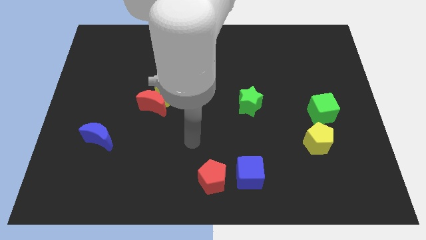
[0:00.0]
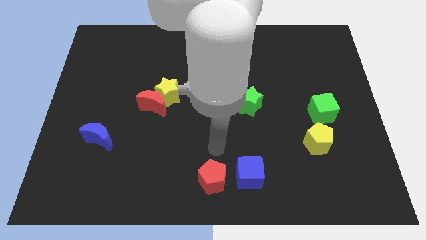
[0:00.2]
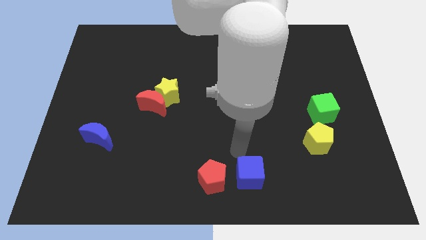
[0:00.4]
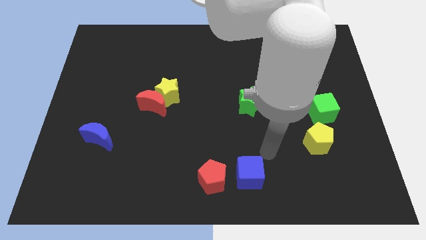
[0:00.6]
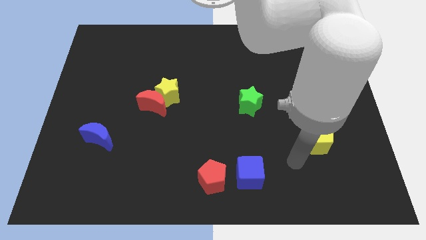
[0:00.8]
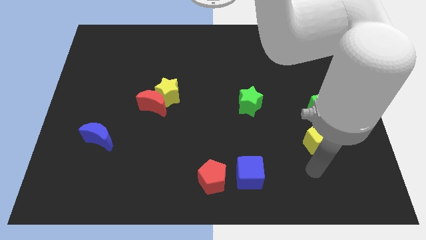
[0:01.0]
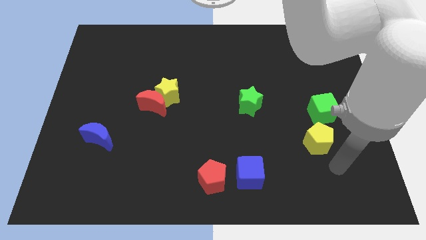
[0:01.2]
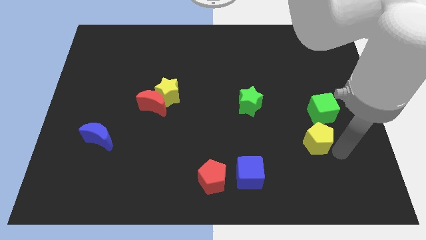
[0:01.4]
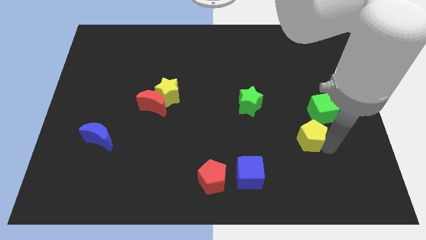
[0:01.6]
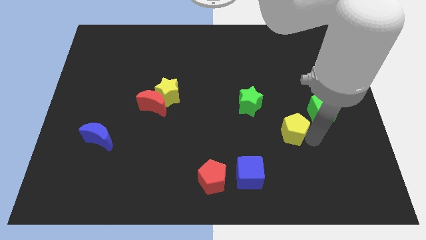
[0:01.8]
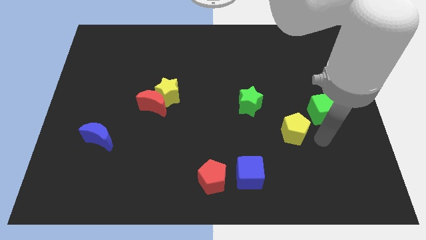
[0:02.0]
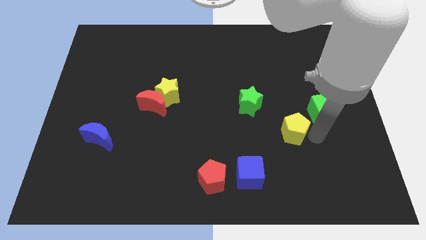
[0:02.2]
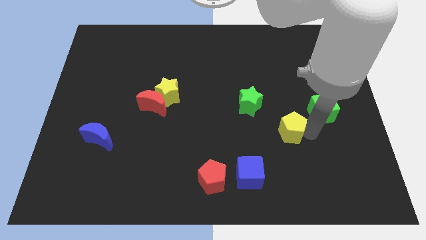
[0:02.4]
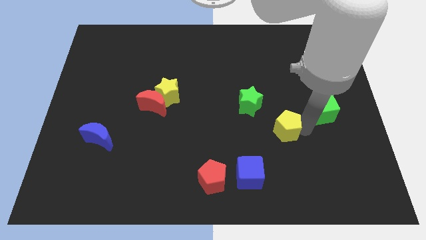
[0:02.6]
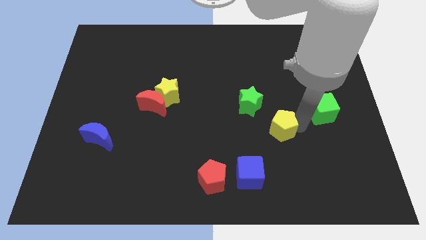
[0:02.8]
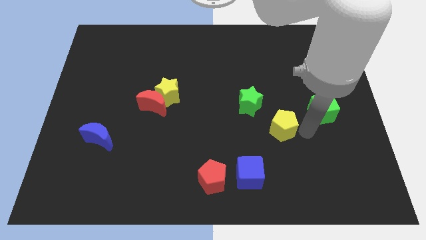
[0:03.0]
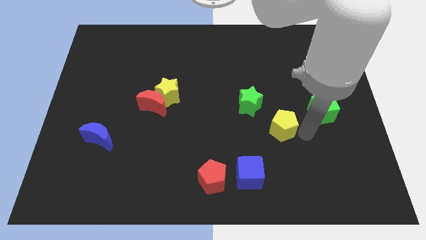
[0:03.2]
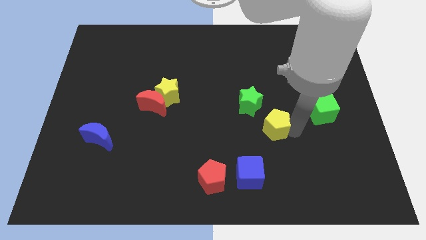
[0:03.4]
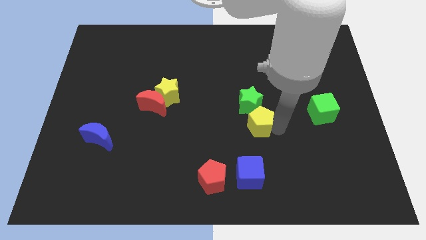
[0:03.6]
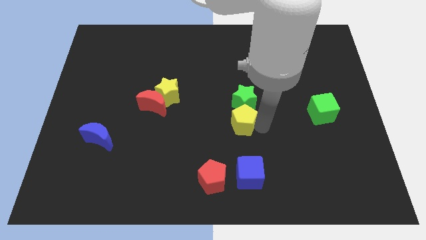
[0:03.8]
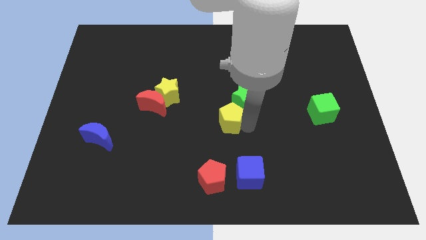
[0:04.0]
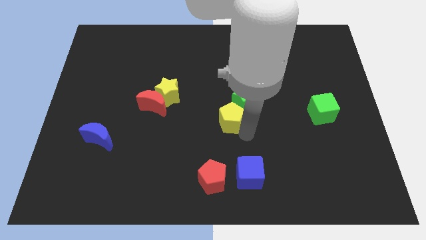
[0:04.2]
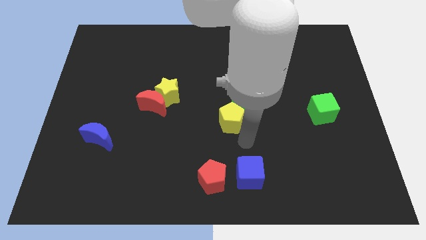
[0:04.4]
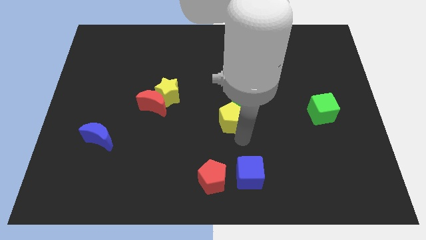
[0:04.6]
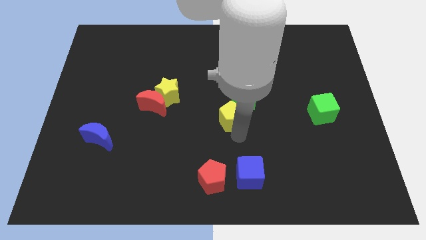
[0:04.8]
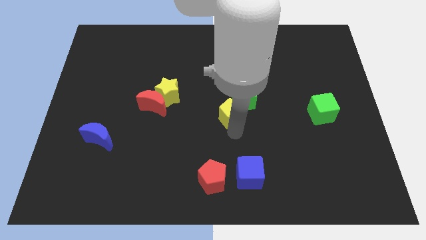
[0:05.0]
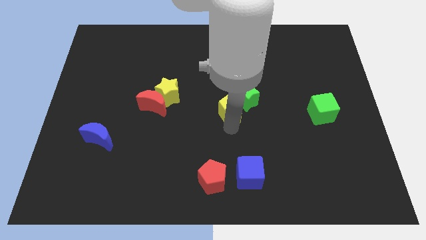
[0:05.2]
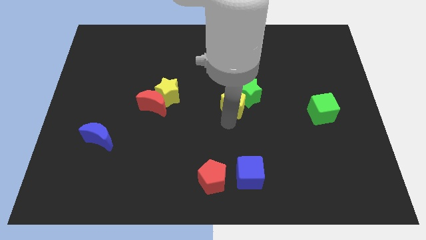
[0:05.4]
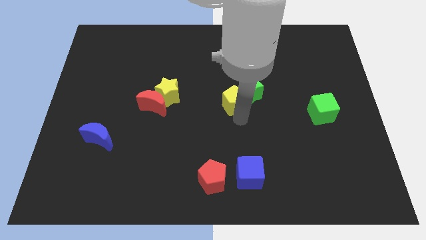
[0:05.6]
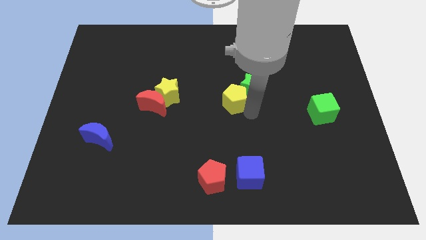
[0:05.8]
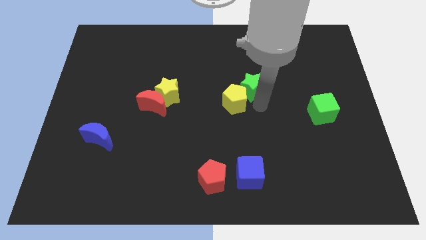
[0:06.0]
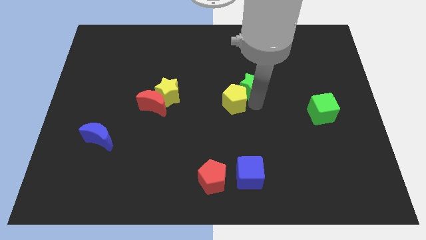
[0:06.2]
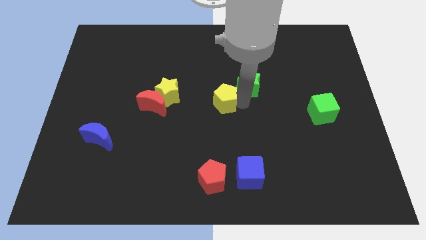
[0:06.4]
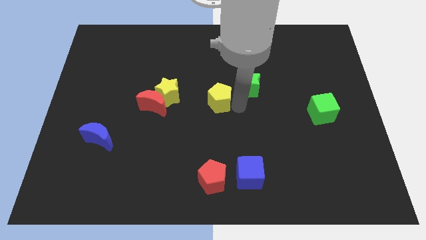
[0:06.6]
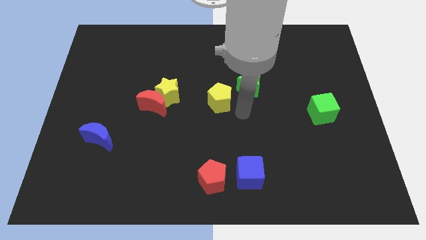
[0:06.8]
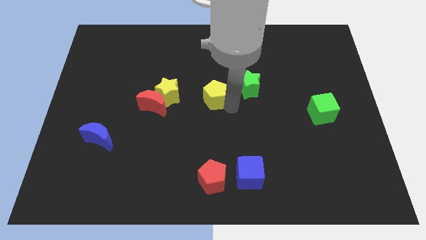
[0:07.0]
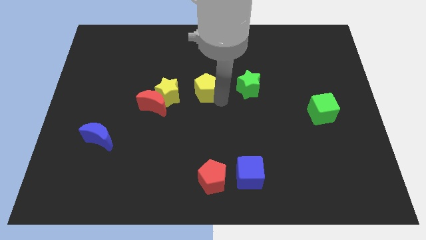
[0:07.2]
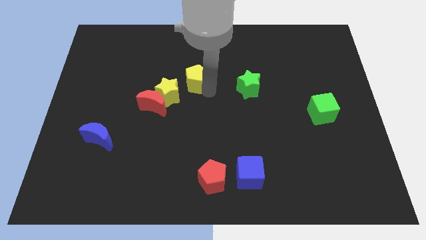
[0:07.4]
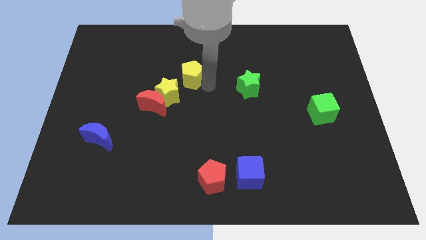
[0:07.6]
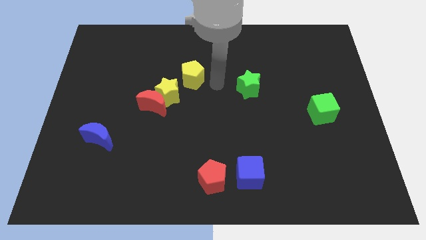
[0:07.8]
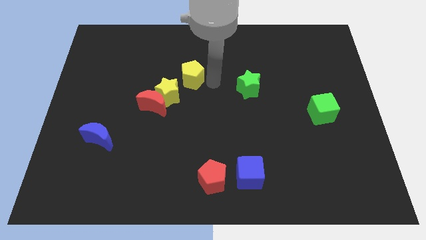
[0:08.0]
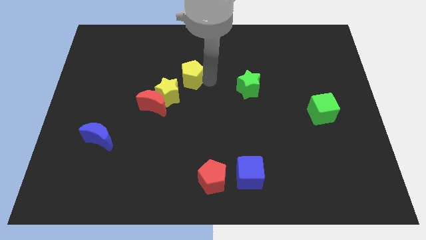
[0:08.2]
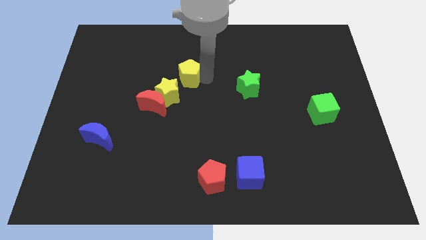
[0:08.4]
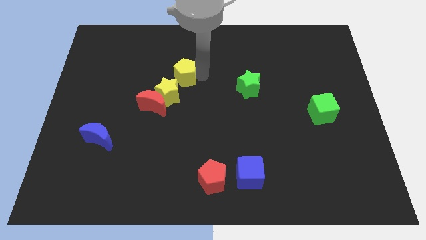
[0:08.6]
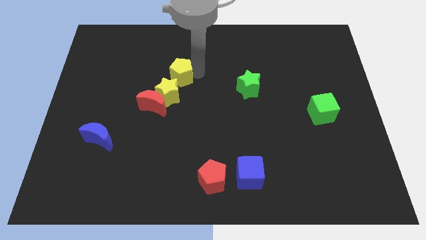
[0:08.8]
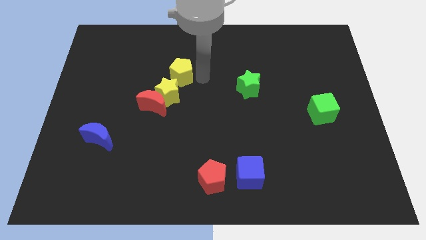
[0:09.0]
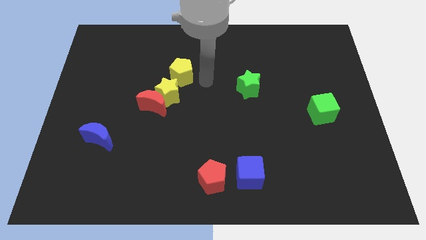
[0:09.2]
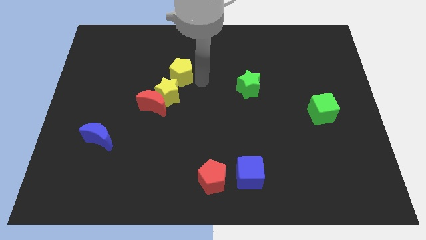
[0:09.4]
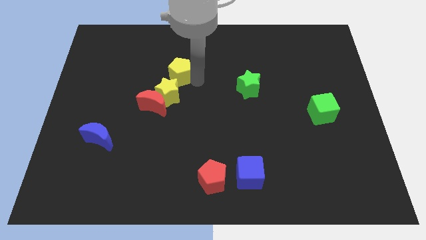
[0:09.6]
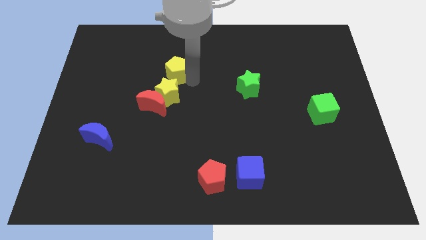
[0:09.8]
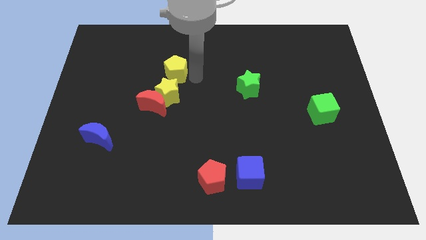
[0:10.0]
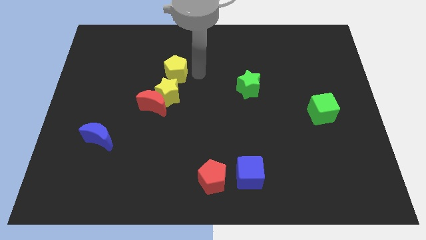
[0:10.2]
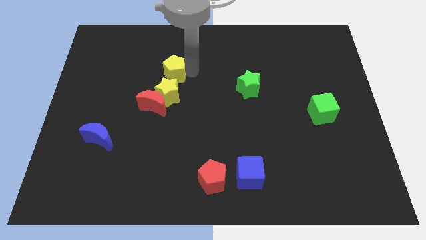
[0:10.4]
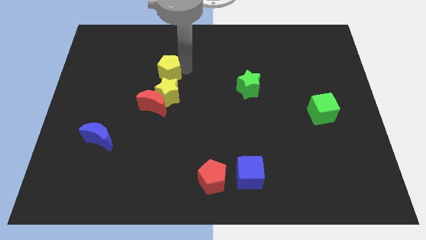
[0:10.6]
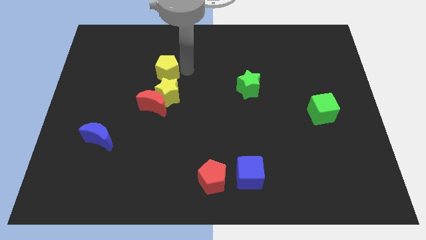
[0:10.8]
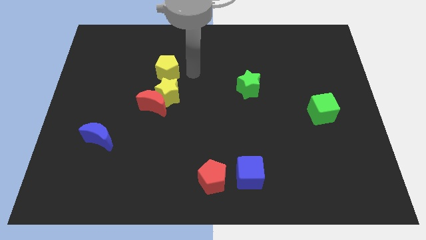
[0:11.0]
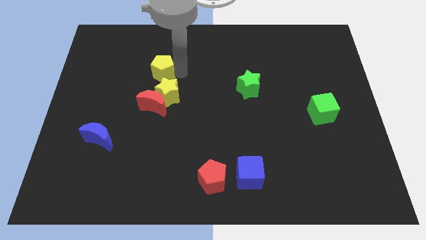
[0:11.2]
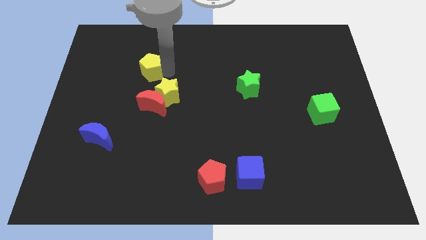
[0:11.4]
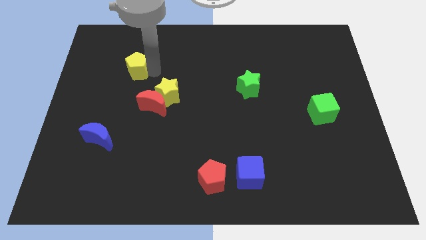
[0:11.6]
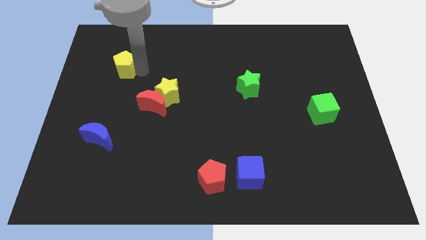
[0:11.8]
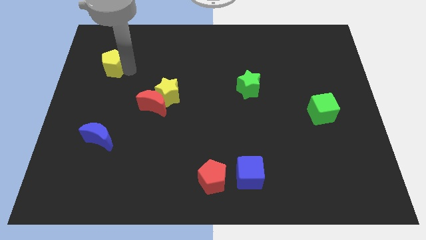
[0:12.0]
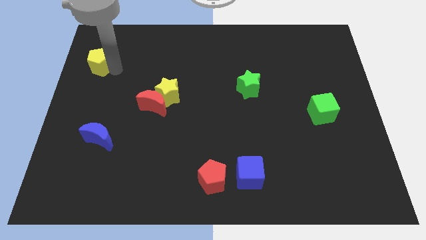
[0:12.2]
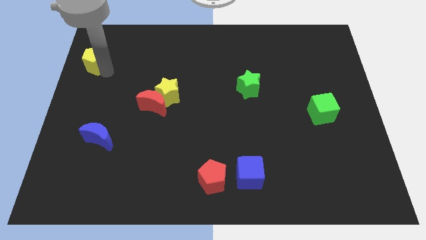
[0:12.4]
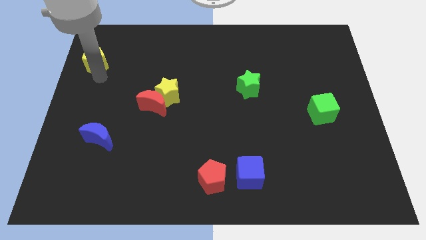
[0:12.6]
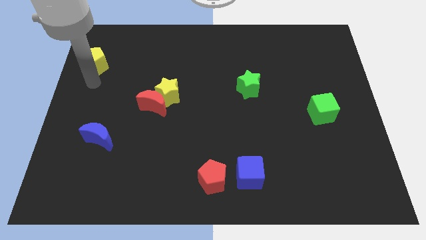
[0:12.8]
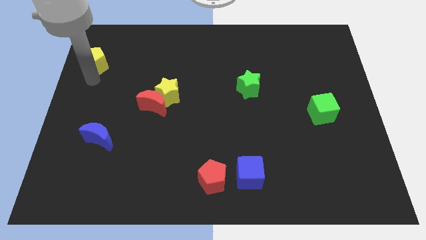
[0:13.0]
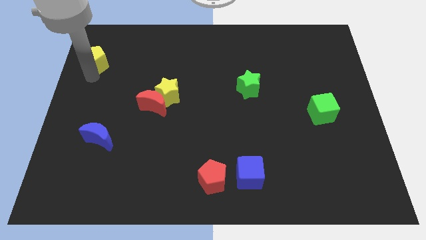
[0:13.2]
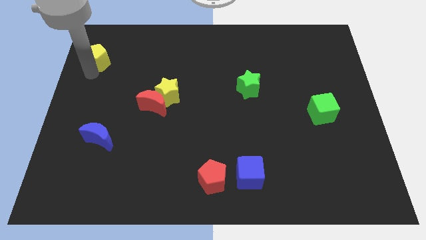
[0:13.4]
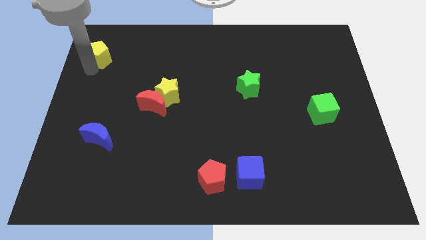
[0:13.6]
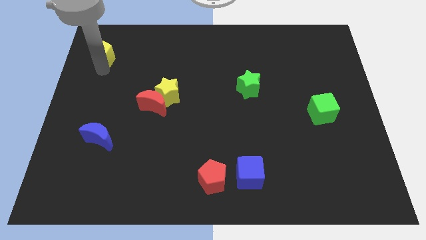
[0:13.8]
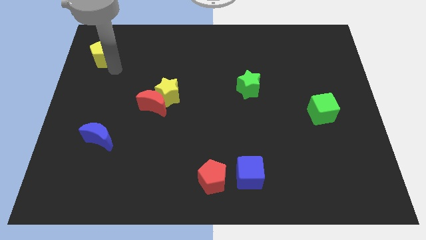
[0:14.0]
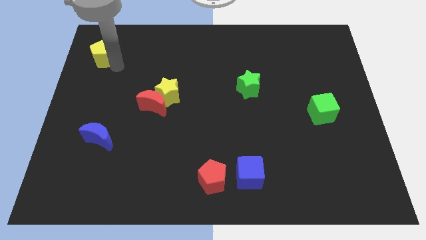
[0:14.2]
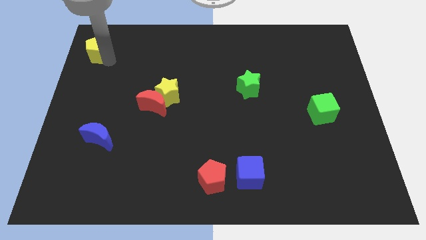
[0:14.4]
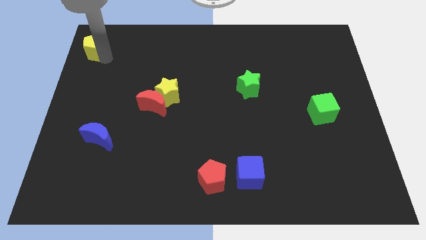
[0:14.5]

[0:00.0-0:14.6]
push the yellow pentagon to the upper left corner
